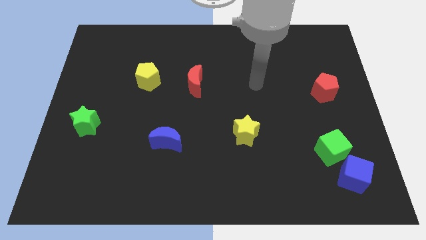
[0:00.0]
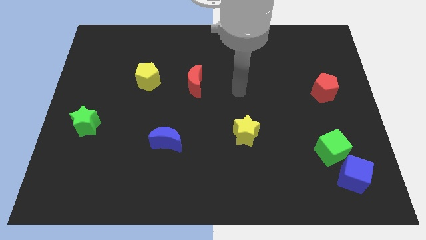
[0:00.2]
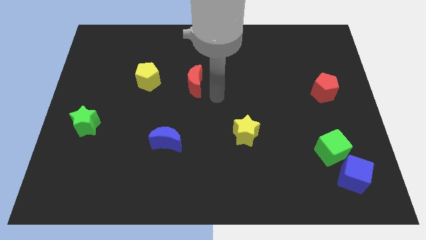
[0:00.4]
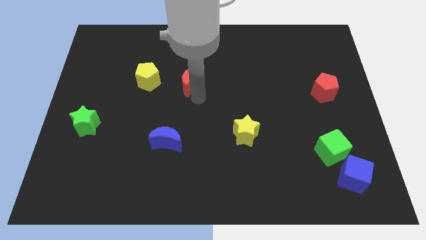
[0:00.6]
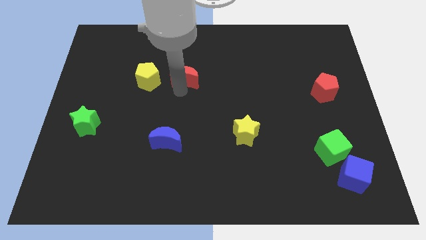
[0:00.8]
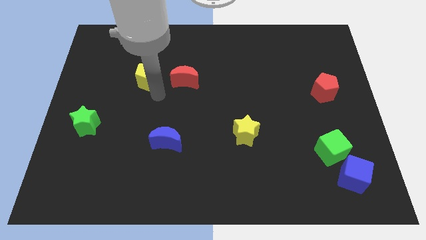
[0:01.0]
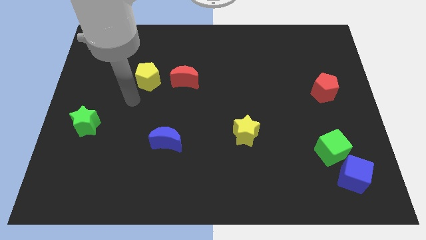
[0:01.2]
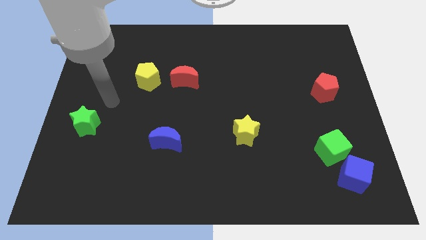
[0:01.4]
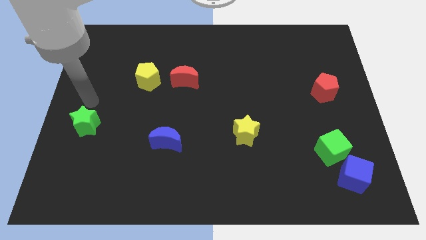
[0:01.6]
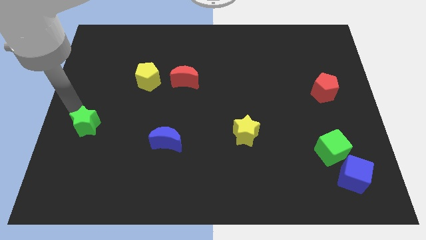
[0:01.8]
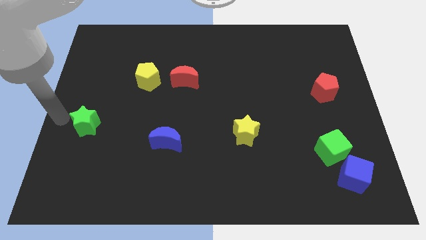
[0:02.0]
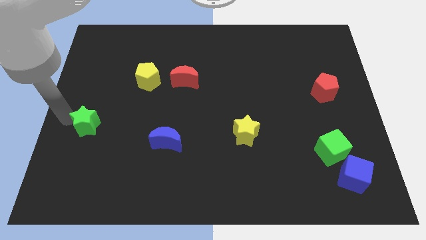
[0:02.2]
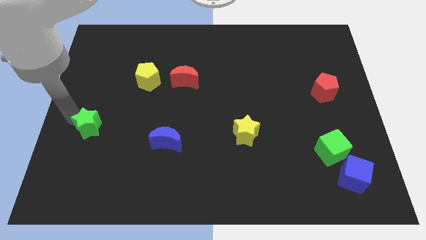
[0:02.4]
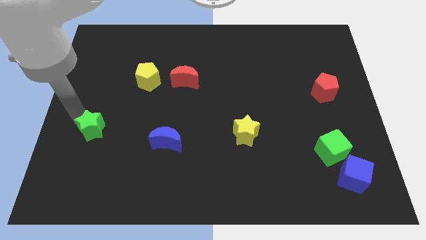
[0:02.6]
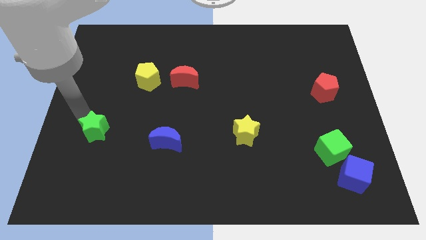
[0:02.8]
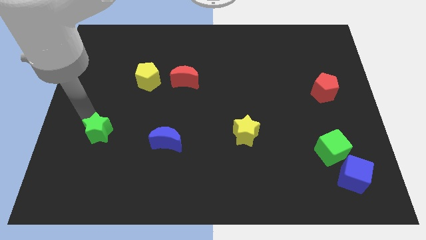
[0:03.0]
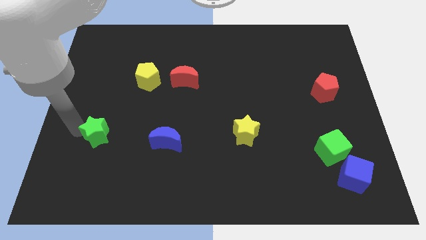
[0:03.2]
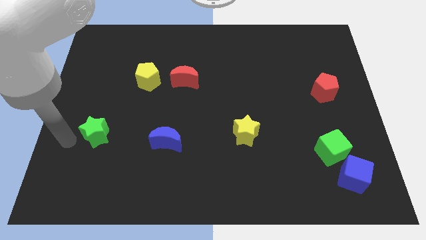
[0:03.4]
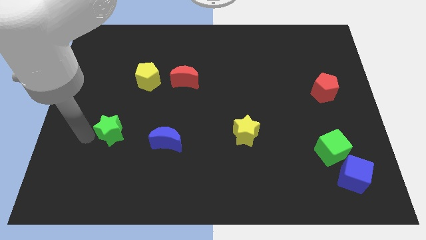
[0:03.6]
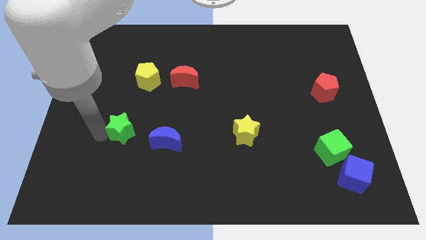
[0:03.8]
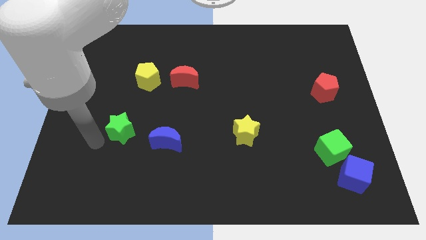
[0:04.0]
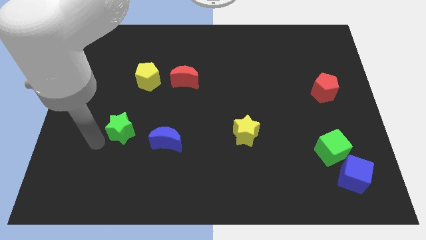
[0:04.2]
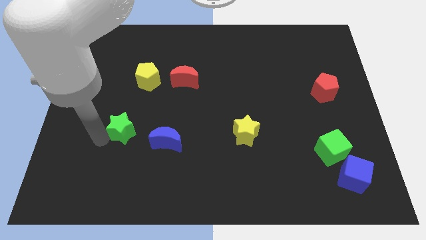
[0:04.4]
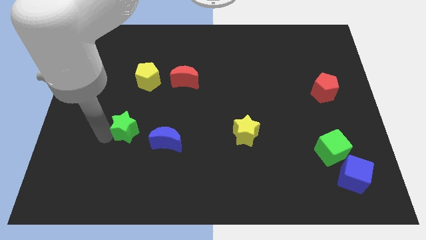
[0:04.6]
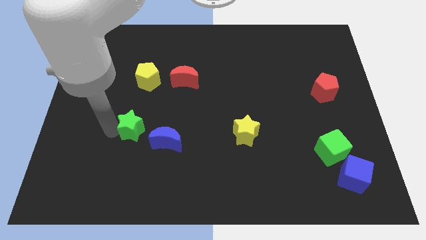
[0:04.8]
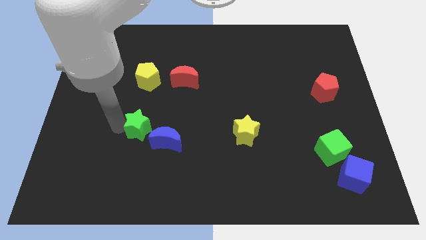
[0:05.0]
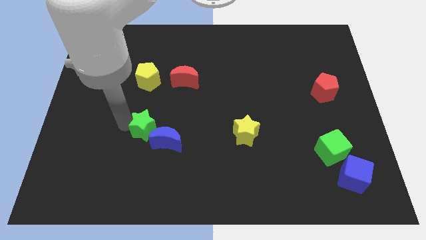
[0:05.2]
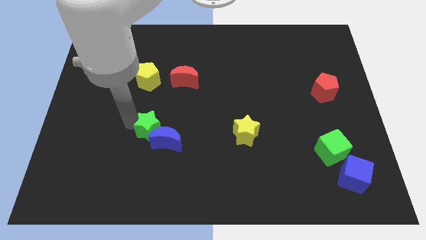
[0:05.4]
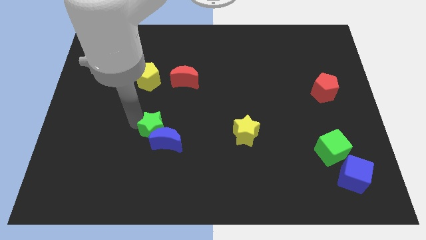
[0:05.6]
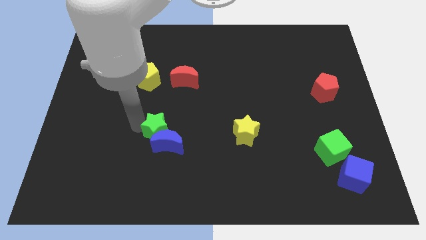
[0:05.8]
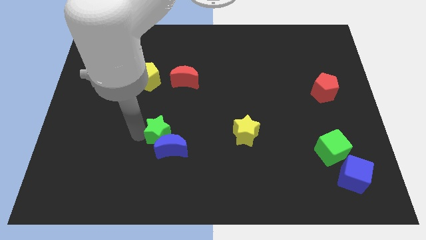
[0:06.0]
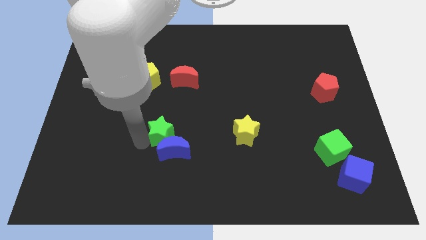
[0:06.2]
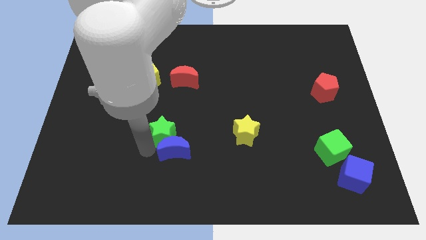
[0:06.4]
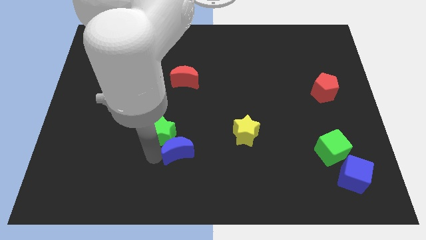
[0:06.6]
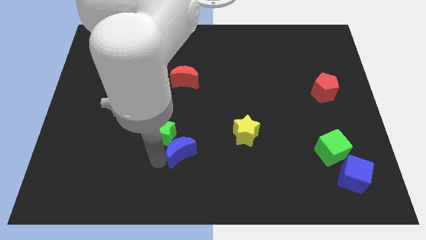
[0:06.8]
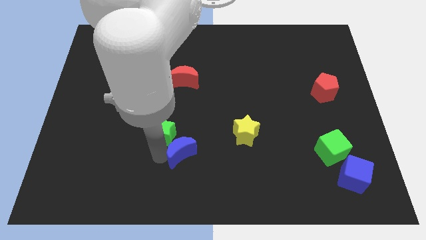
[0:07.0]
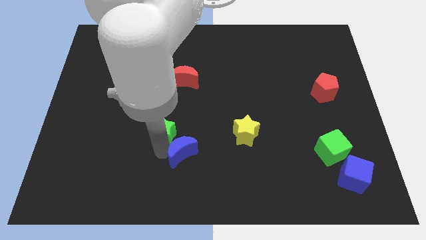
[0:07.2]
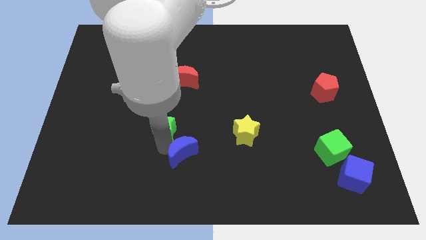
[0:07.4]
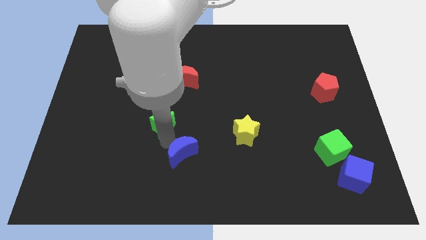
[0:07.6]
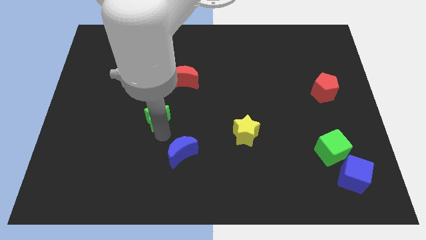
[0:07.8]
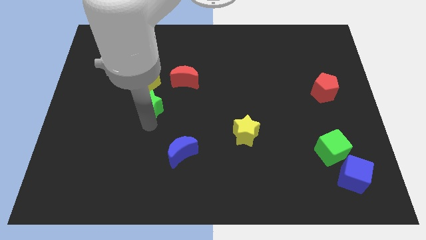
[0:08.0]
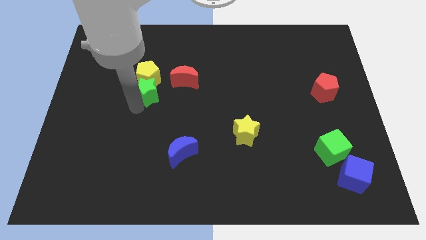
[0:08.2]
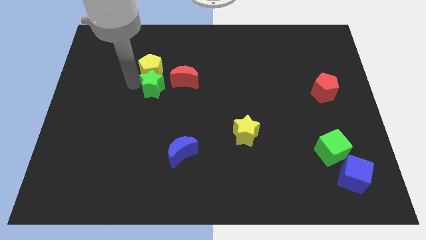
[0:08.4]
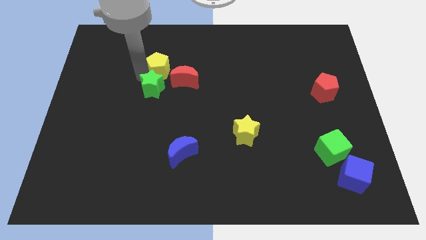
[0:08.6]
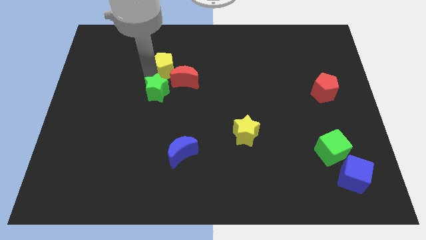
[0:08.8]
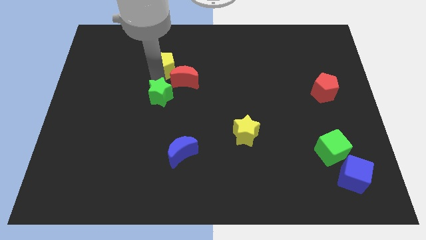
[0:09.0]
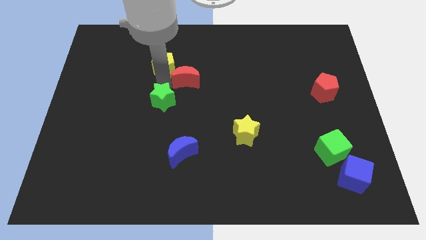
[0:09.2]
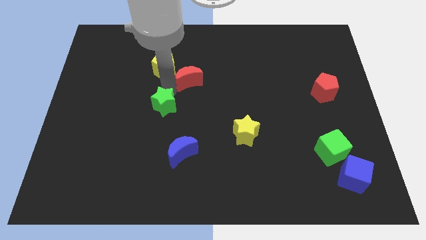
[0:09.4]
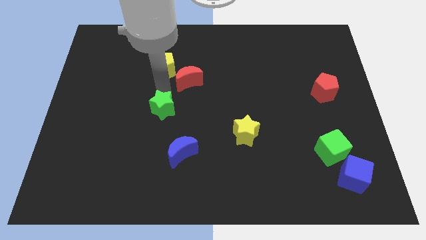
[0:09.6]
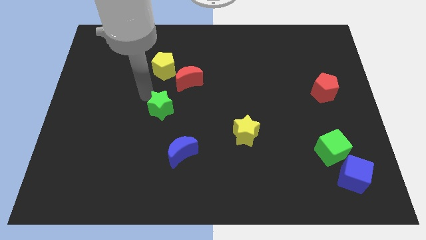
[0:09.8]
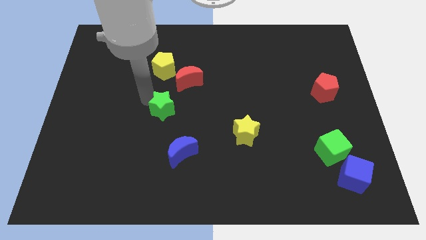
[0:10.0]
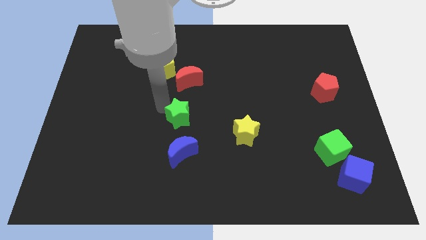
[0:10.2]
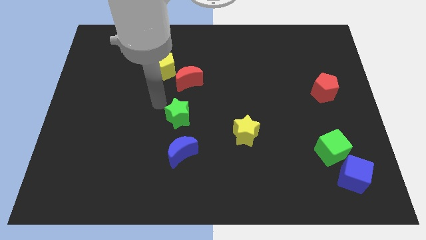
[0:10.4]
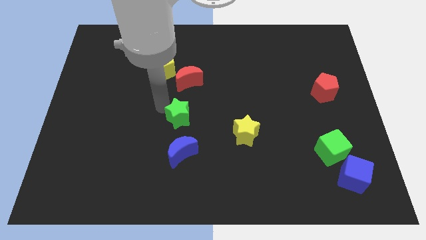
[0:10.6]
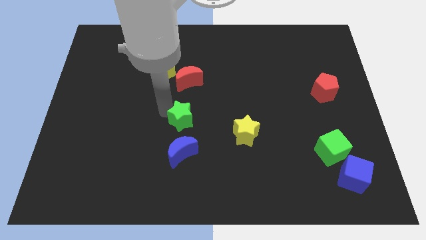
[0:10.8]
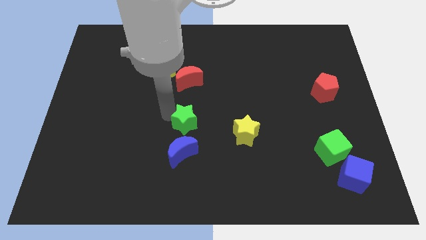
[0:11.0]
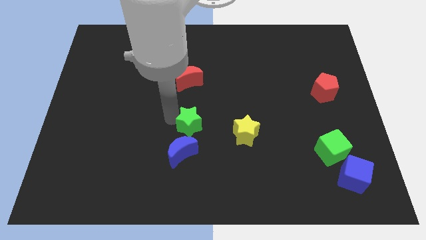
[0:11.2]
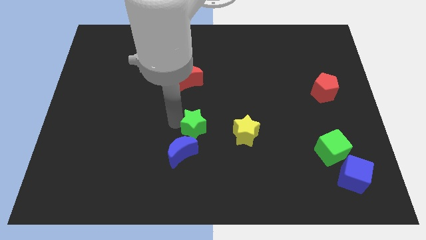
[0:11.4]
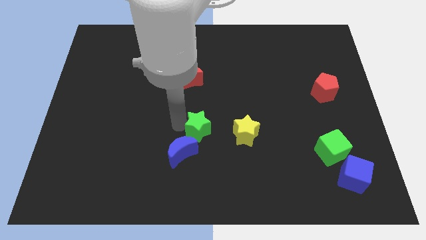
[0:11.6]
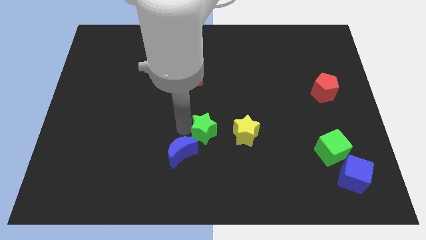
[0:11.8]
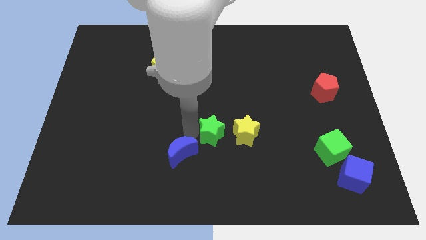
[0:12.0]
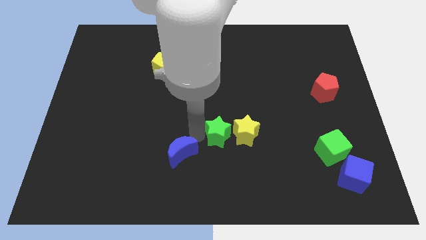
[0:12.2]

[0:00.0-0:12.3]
slide the green star close to the yellow star

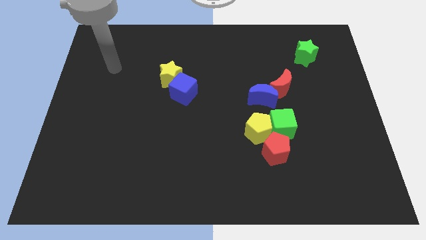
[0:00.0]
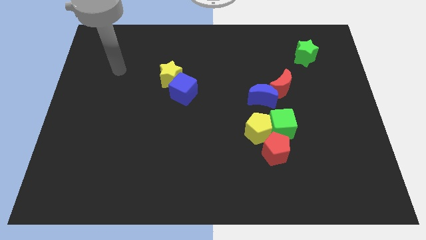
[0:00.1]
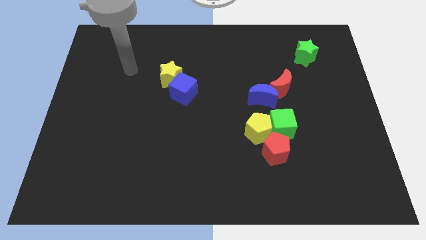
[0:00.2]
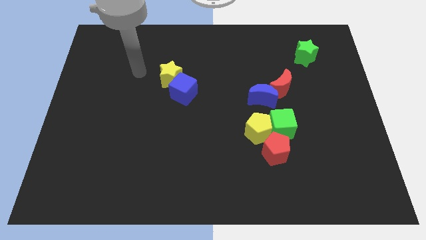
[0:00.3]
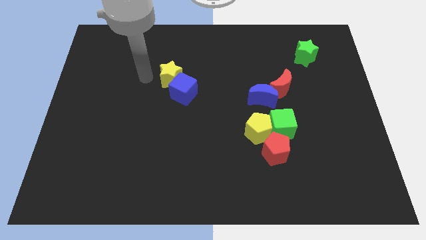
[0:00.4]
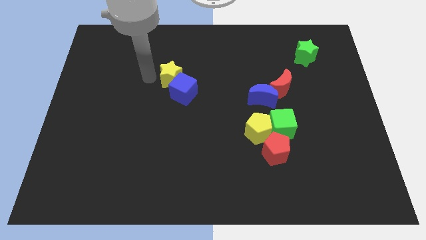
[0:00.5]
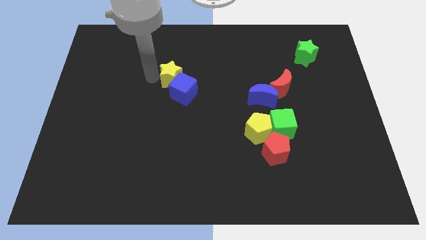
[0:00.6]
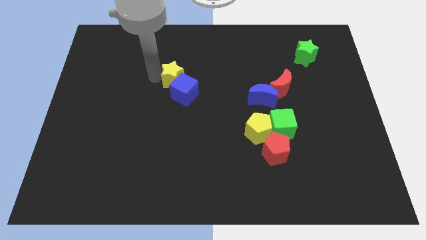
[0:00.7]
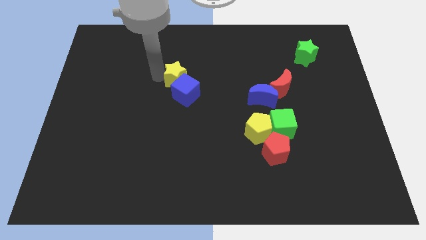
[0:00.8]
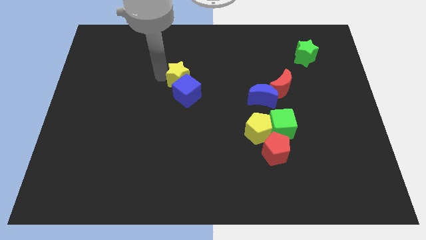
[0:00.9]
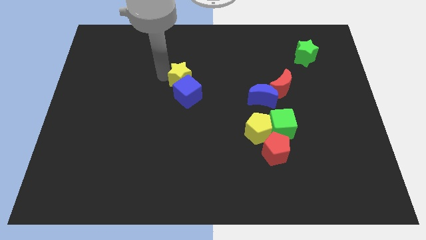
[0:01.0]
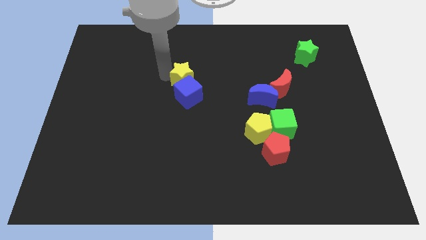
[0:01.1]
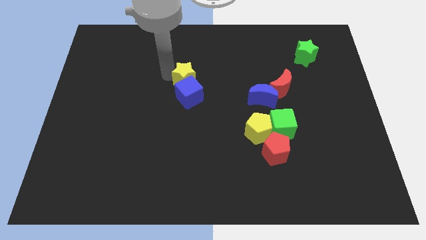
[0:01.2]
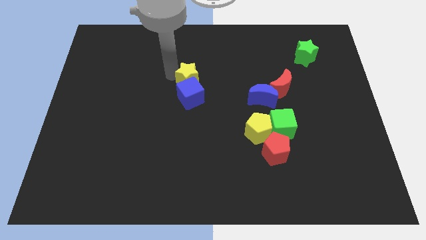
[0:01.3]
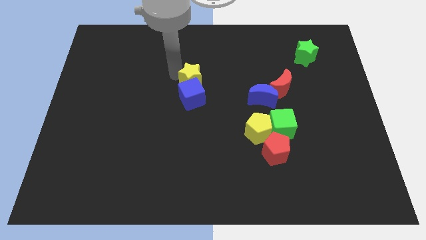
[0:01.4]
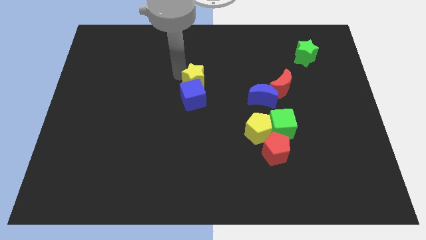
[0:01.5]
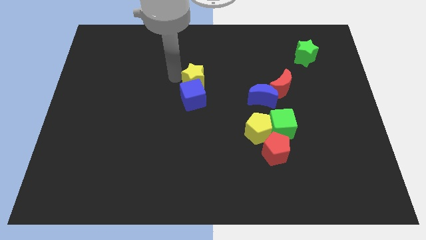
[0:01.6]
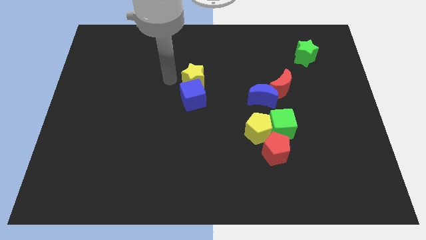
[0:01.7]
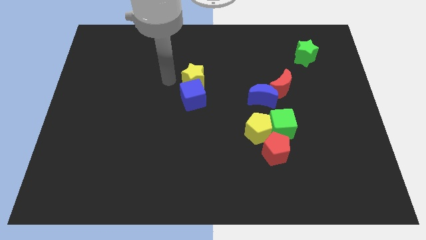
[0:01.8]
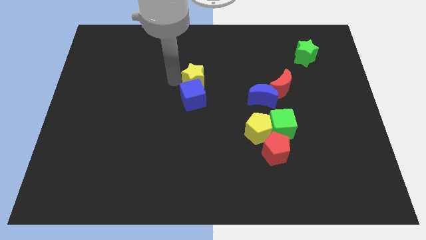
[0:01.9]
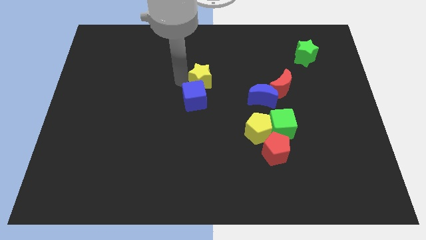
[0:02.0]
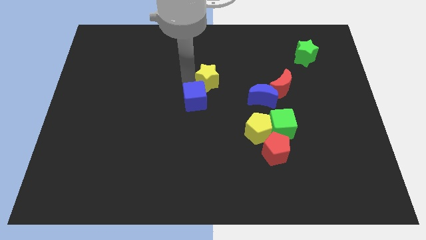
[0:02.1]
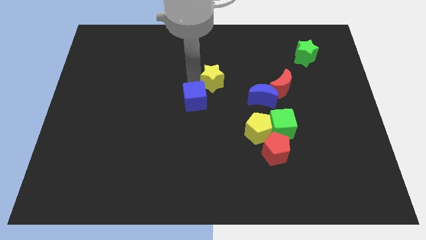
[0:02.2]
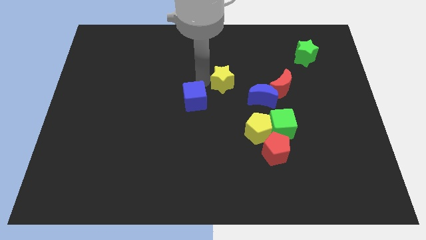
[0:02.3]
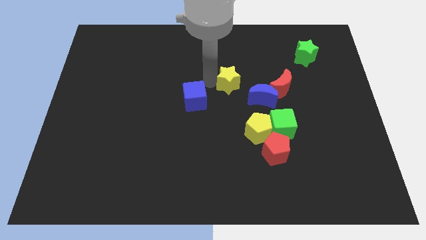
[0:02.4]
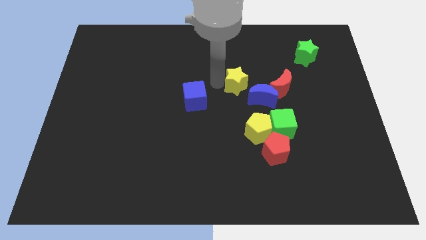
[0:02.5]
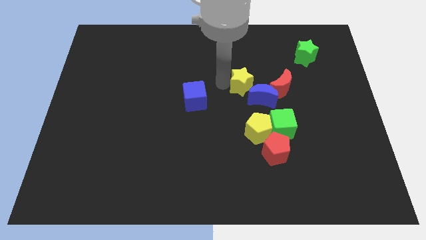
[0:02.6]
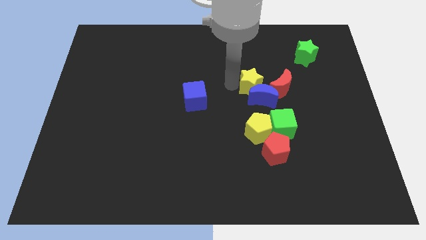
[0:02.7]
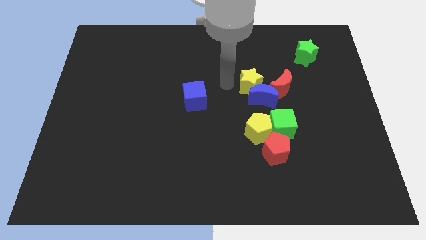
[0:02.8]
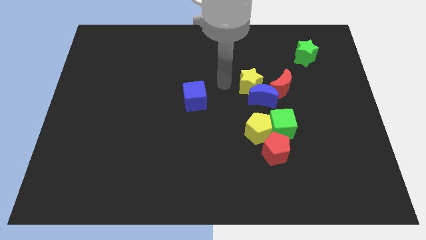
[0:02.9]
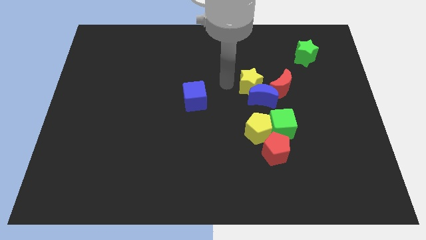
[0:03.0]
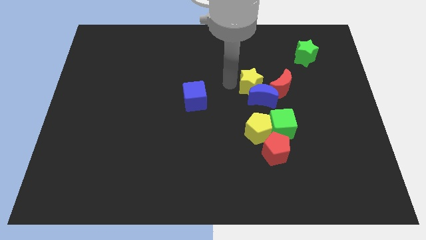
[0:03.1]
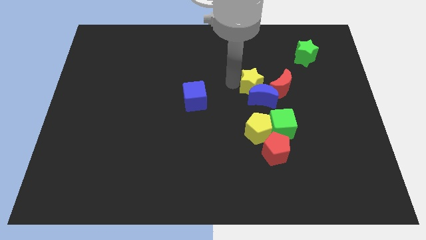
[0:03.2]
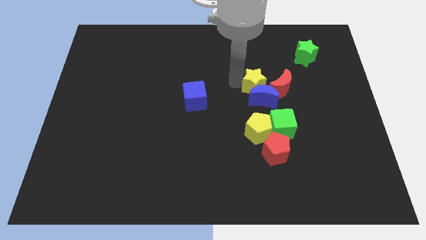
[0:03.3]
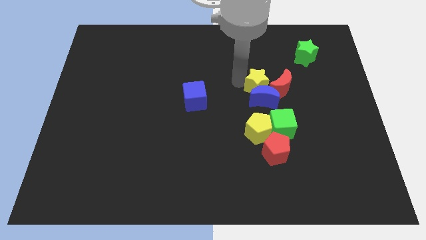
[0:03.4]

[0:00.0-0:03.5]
push the yellow star next to the red moon
